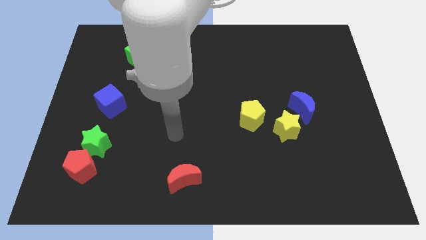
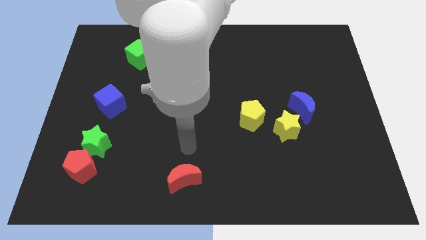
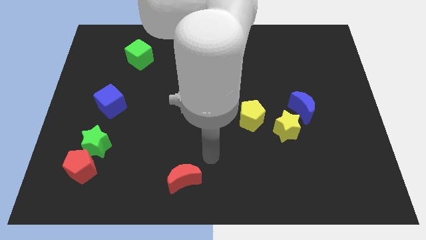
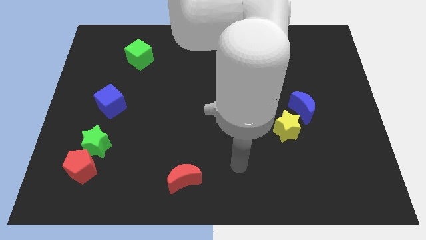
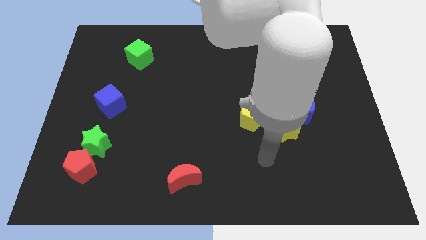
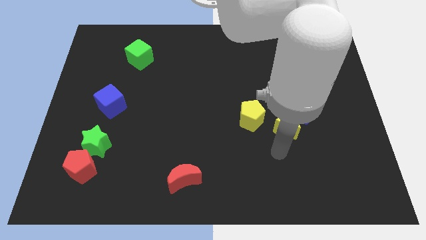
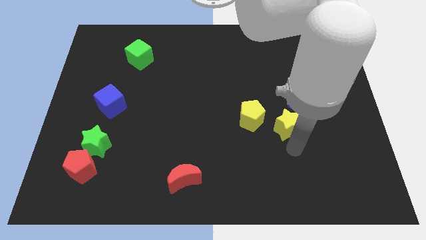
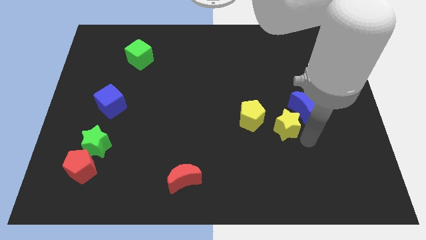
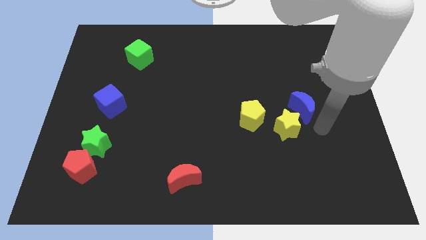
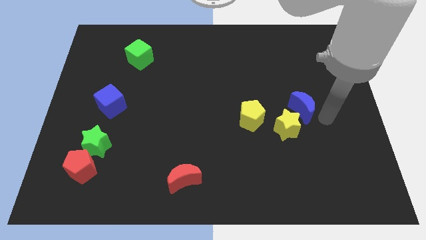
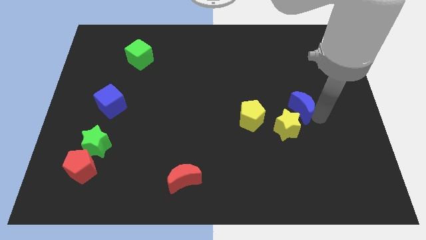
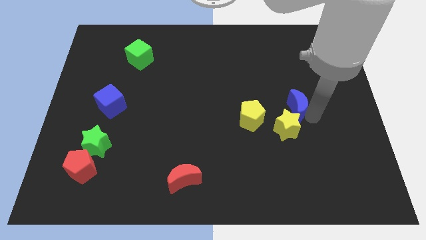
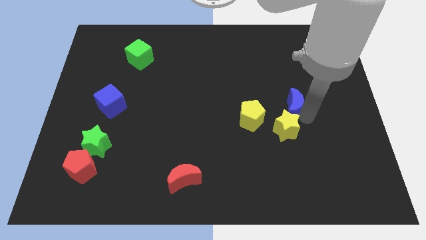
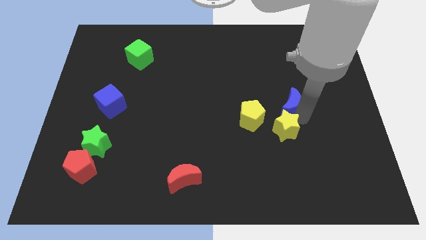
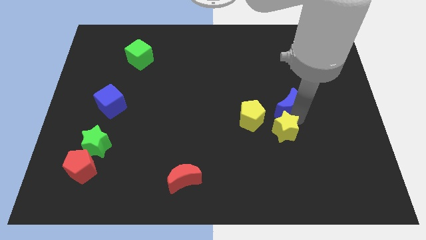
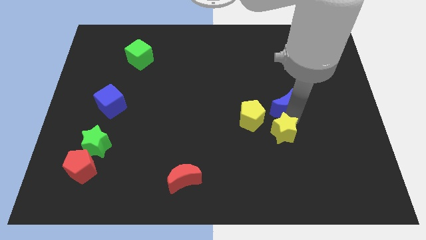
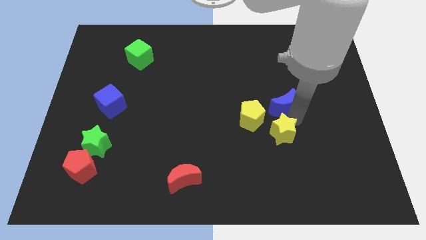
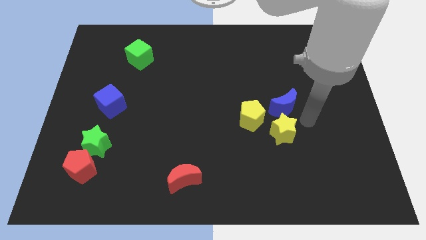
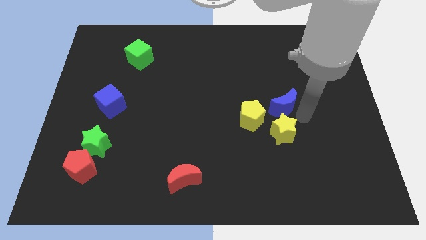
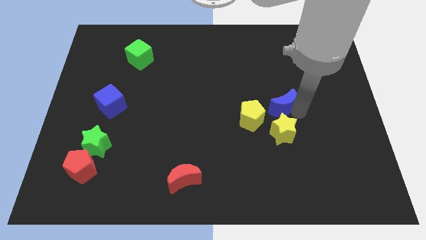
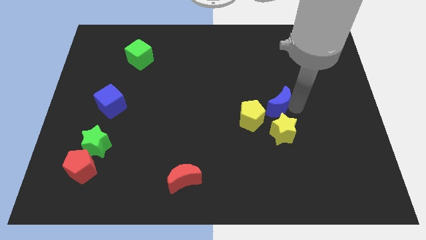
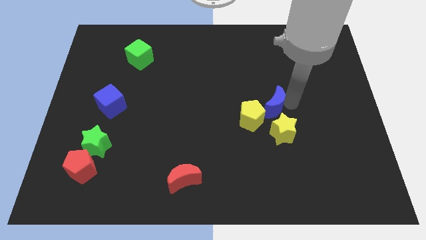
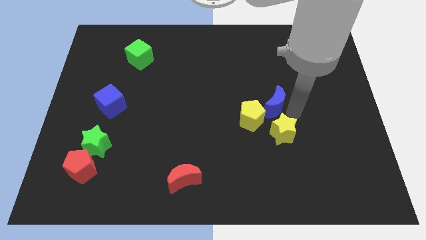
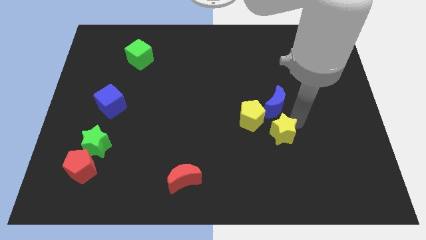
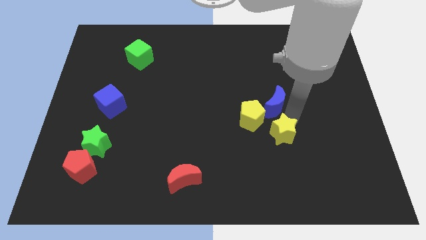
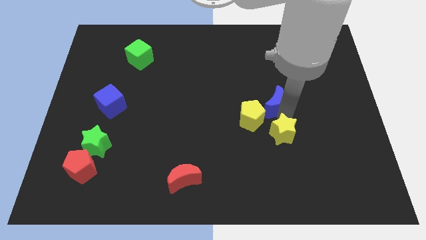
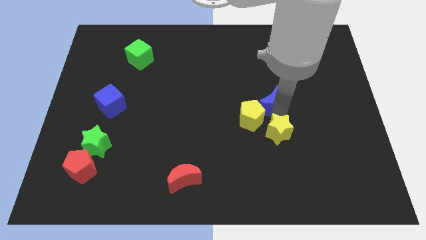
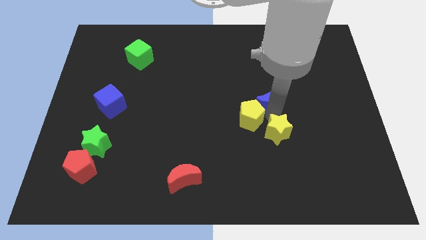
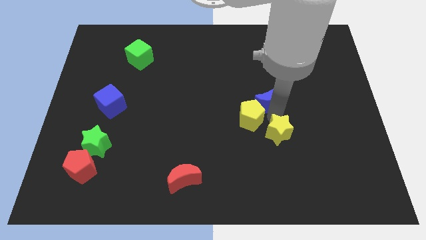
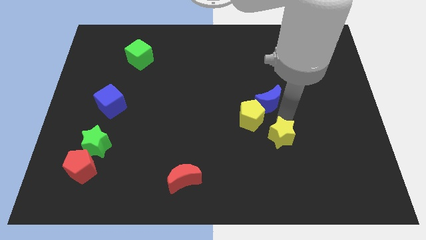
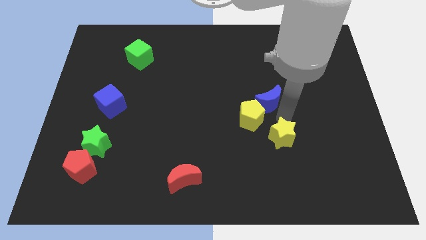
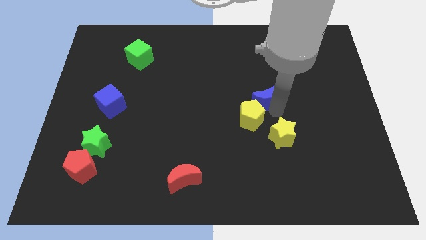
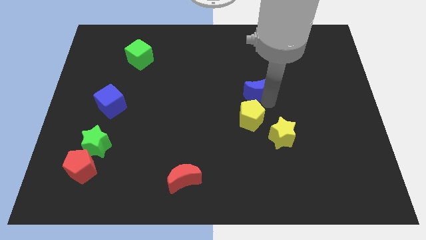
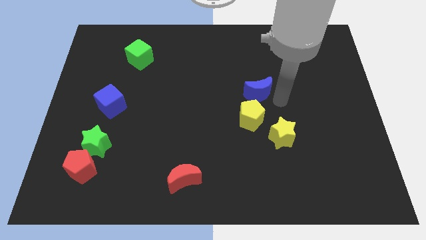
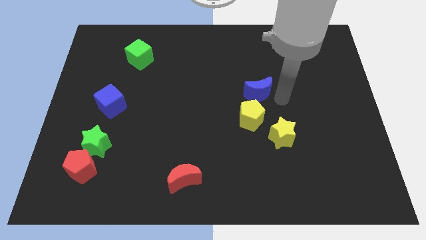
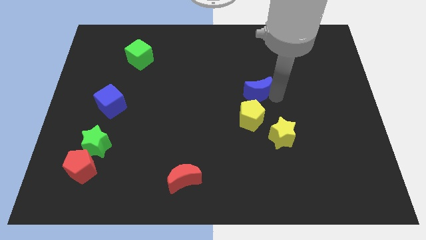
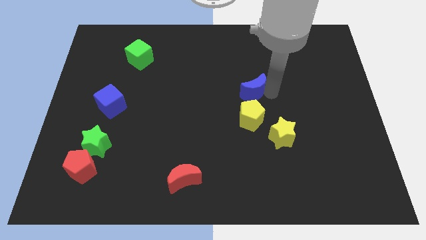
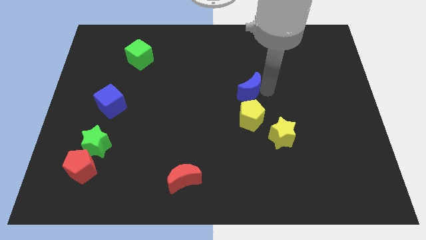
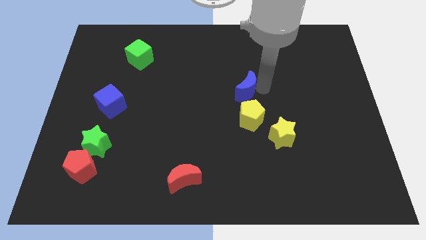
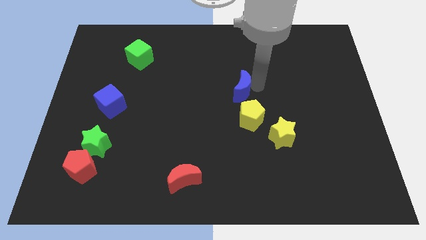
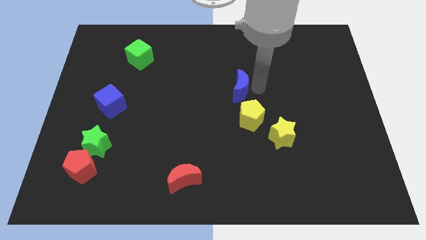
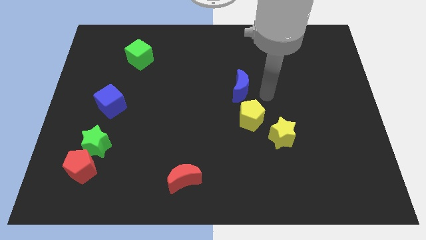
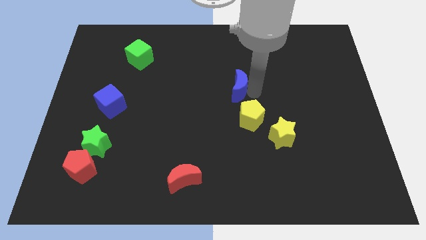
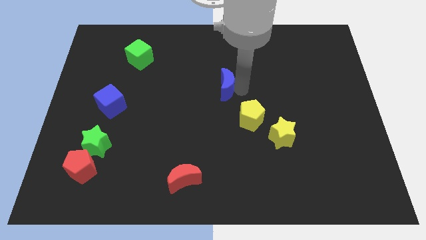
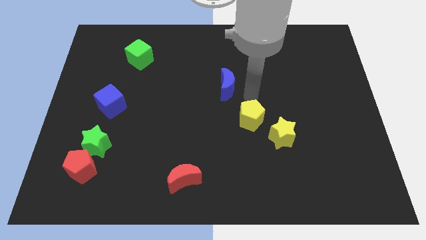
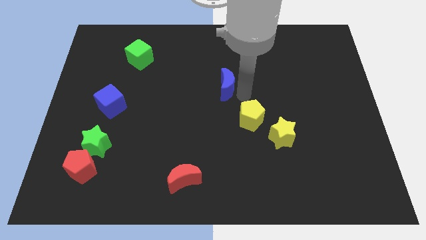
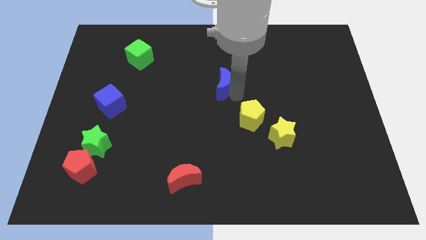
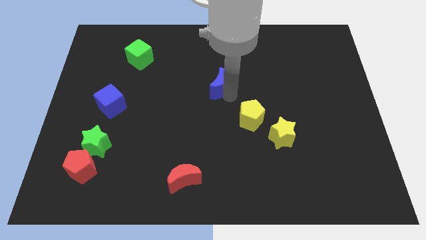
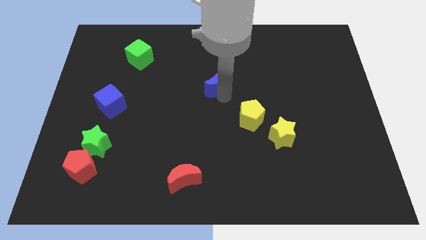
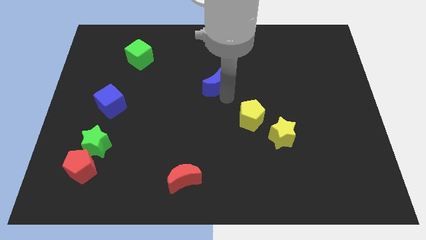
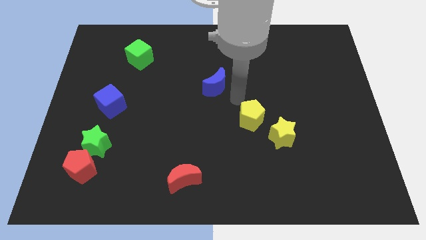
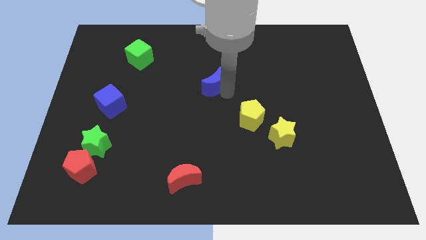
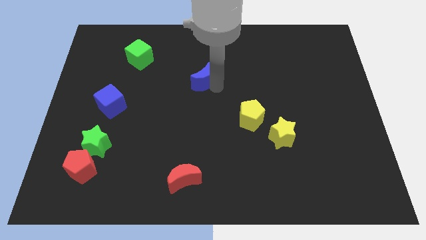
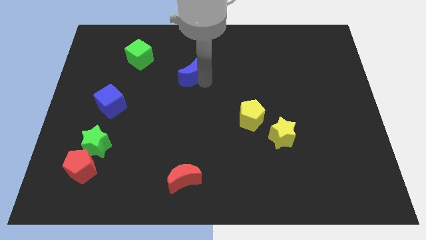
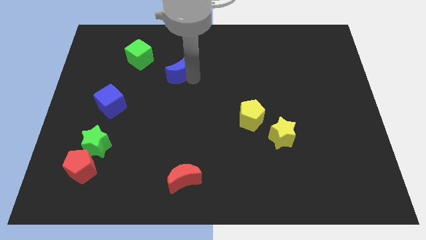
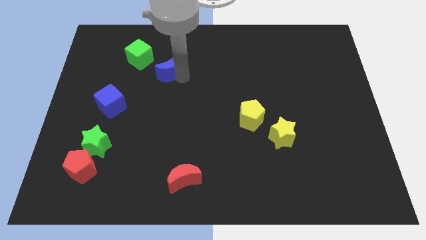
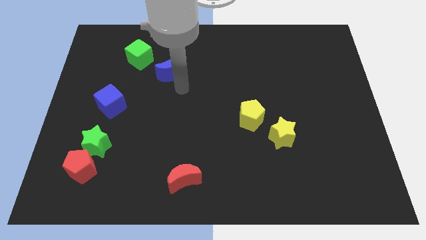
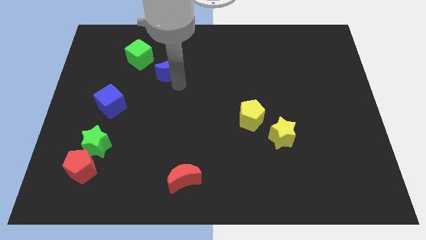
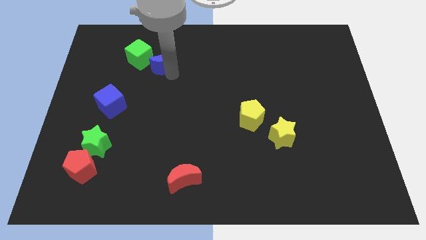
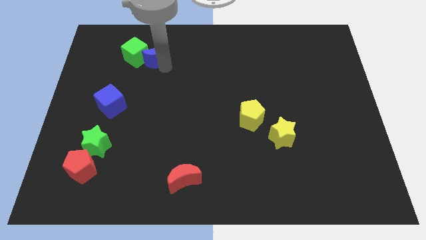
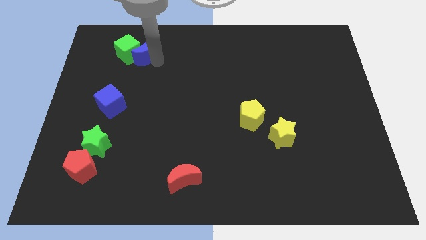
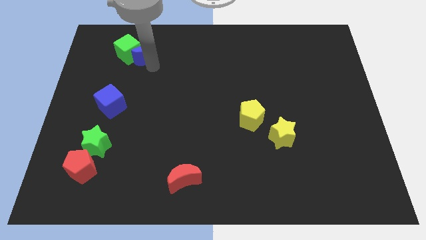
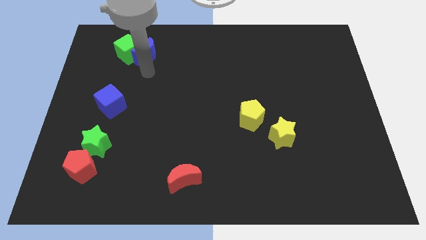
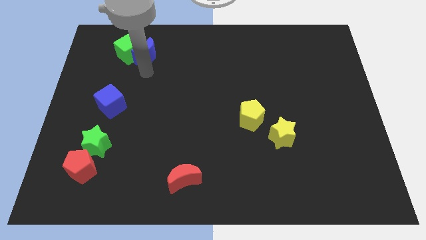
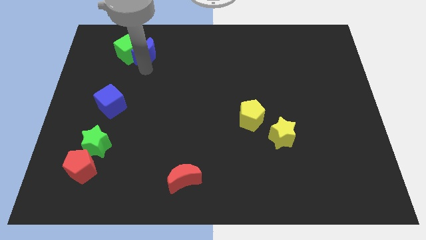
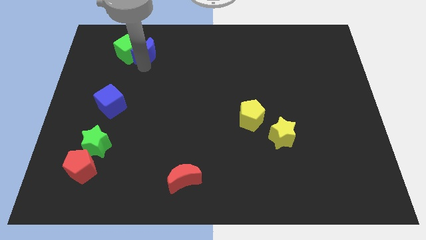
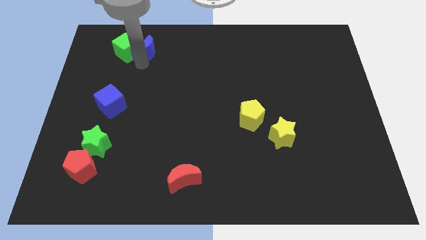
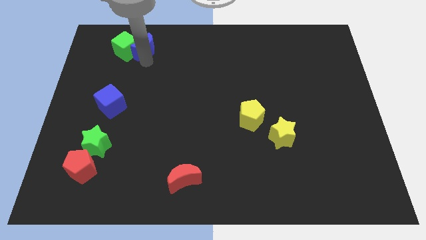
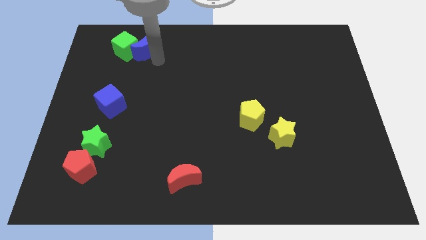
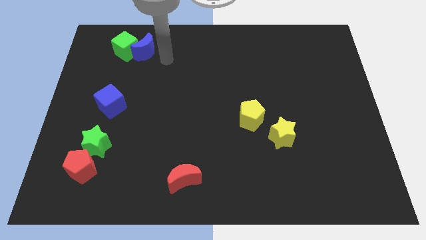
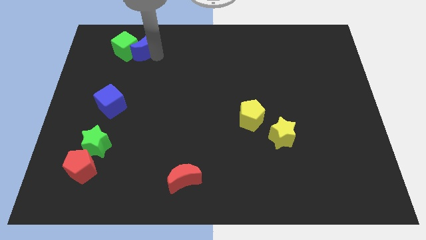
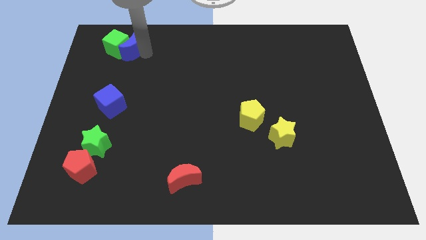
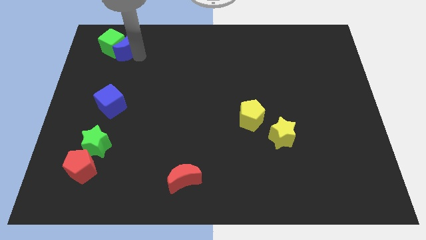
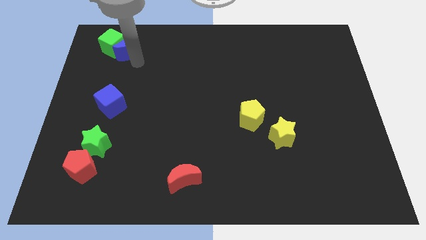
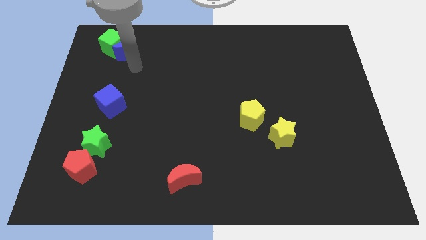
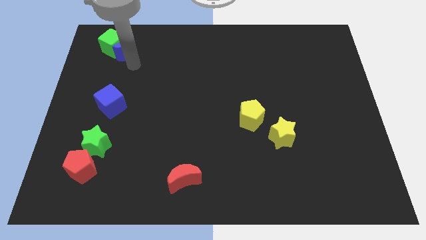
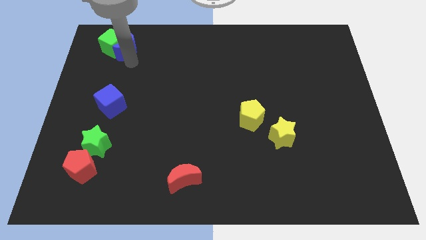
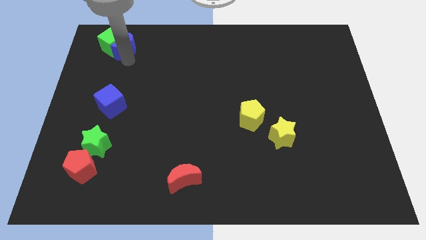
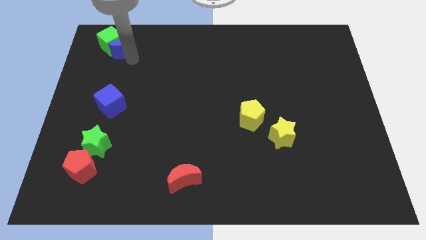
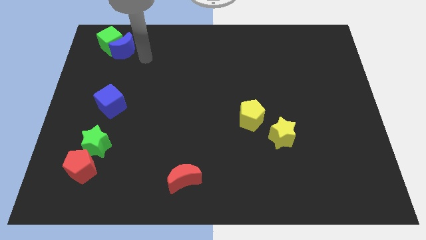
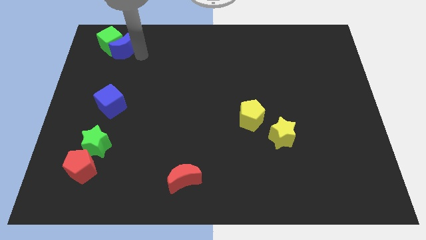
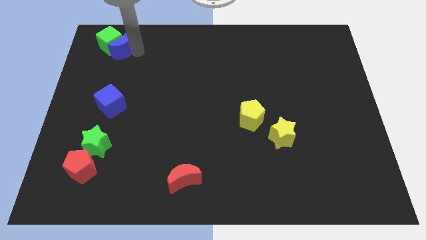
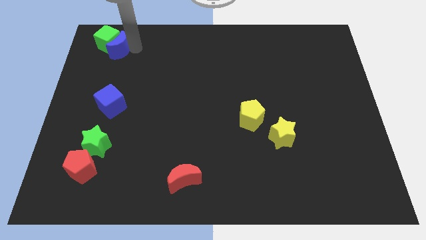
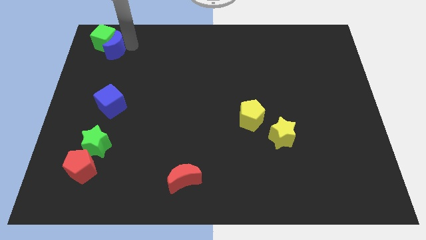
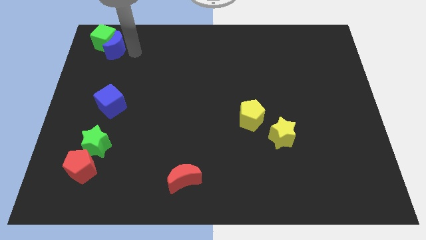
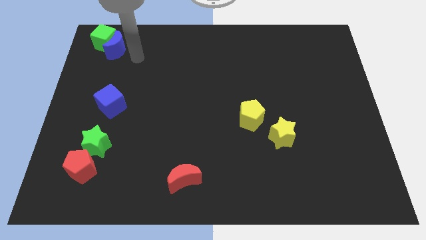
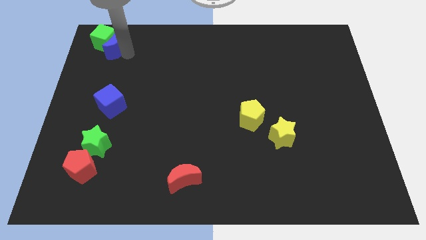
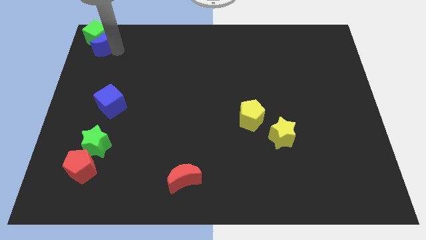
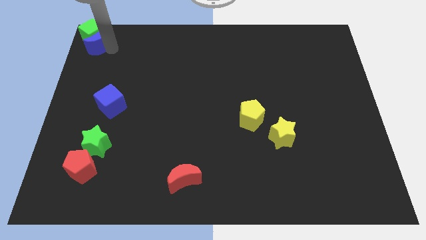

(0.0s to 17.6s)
slide the blue moon to the upper left corner
